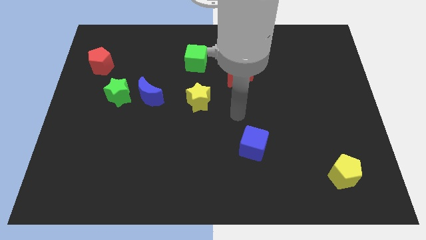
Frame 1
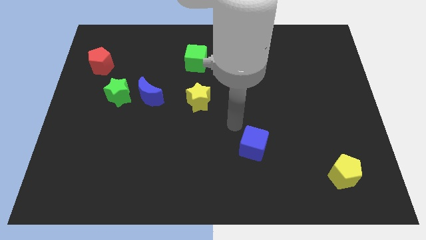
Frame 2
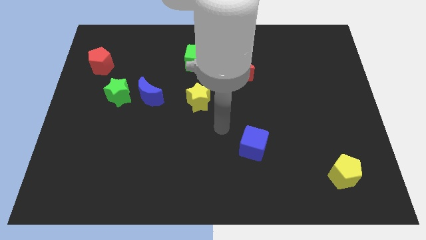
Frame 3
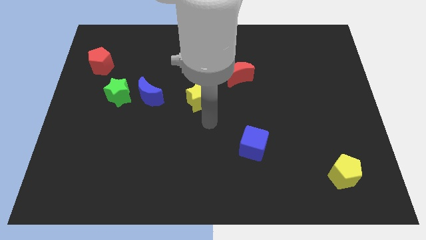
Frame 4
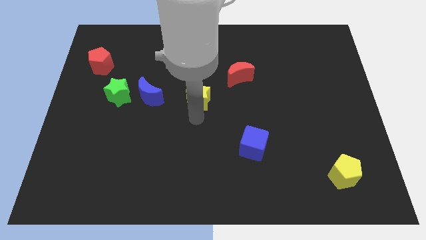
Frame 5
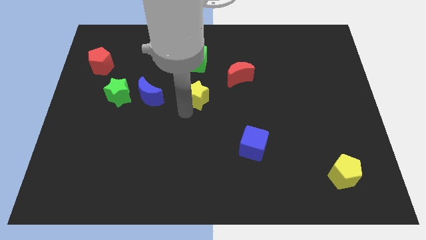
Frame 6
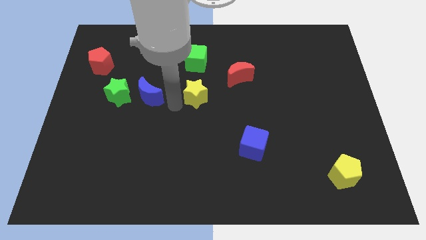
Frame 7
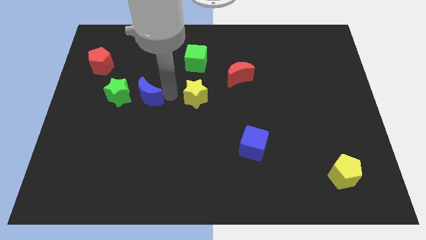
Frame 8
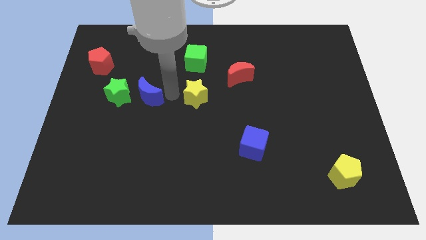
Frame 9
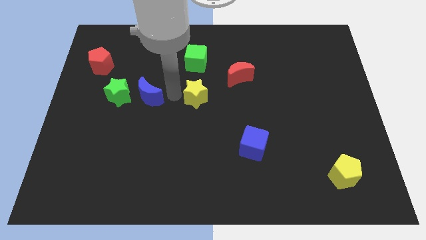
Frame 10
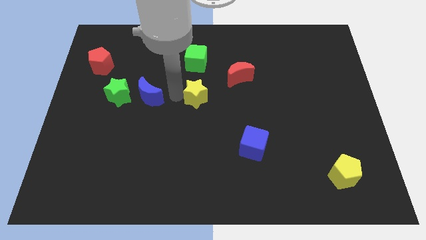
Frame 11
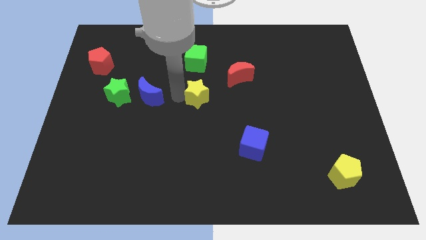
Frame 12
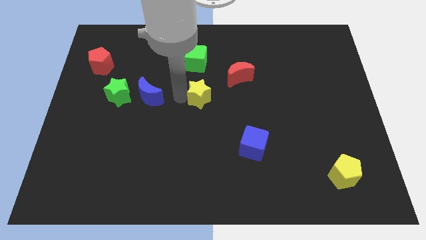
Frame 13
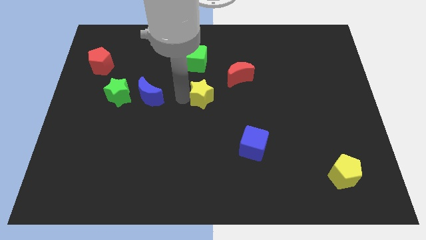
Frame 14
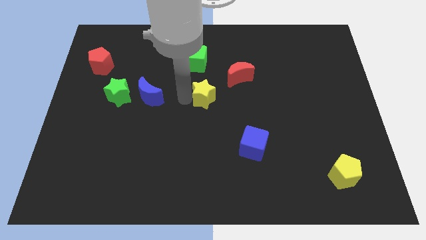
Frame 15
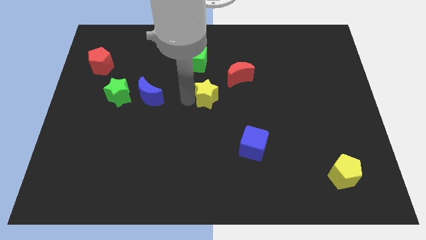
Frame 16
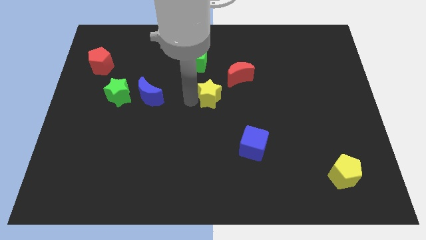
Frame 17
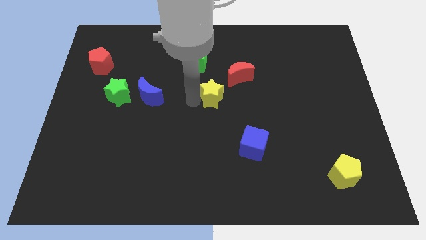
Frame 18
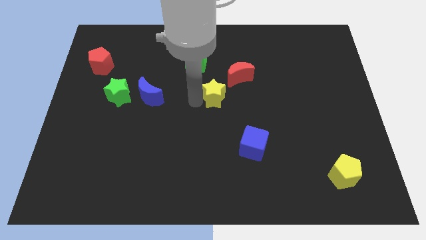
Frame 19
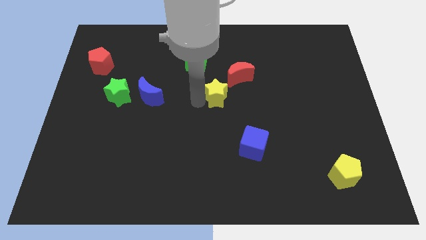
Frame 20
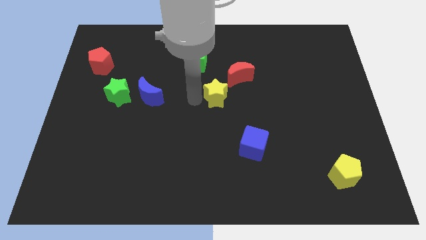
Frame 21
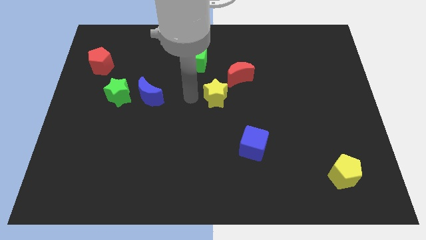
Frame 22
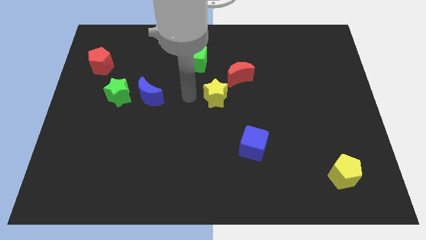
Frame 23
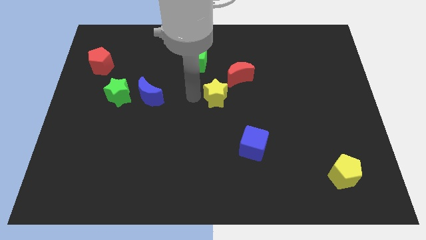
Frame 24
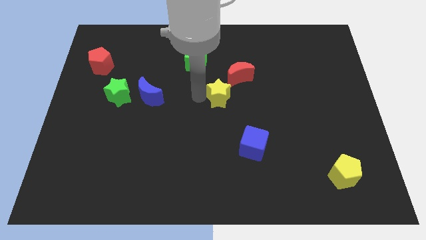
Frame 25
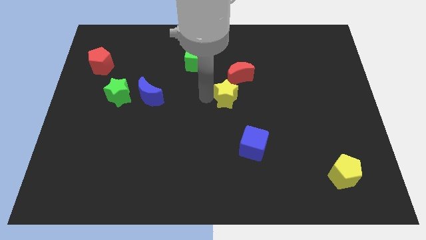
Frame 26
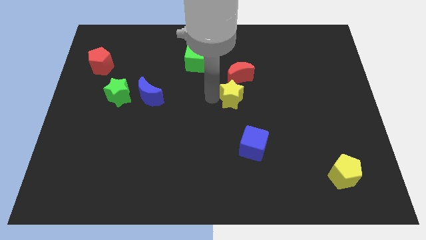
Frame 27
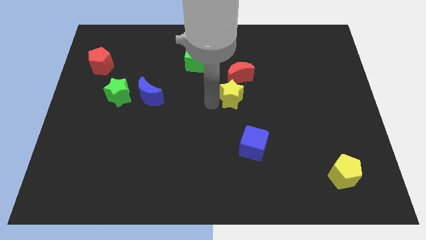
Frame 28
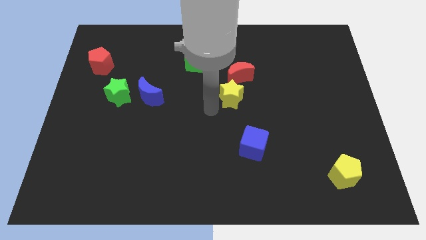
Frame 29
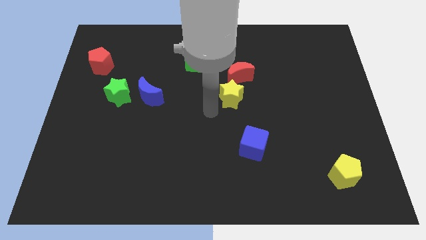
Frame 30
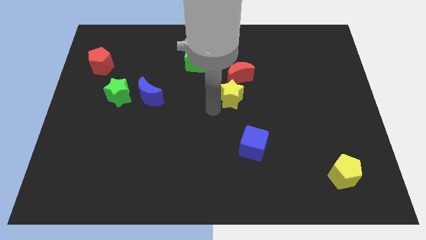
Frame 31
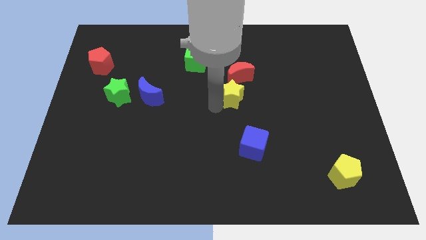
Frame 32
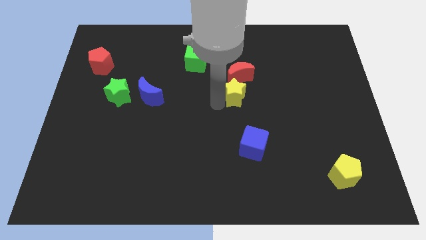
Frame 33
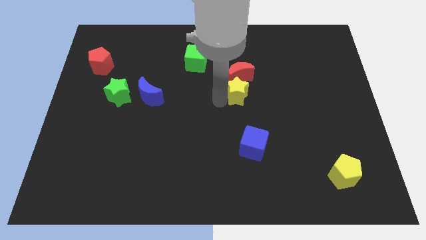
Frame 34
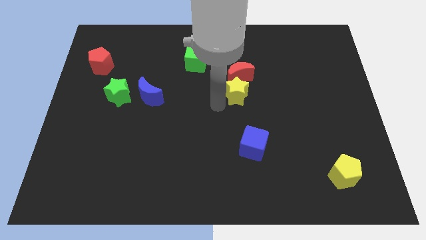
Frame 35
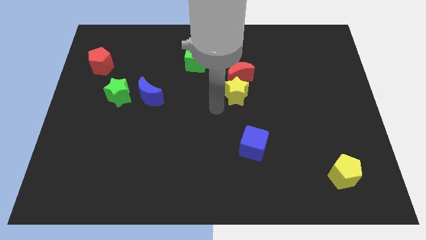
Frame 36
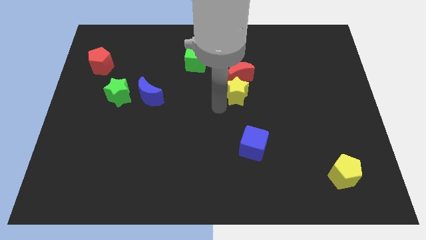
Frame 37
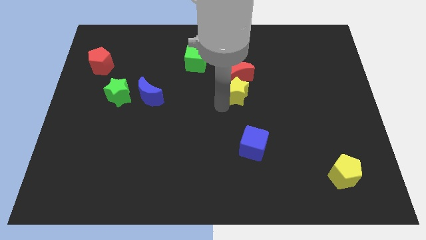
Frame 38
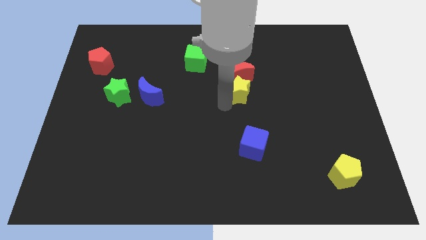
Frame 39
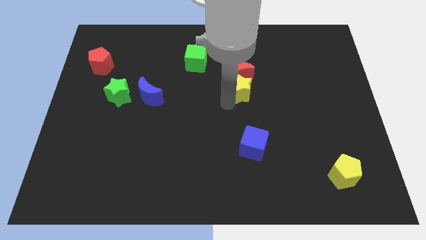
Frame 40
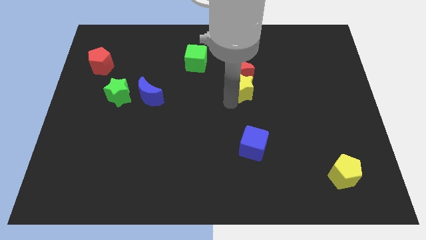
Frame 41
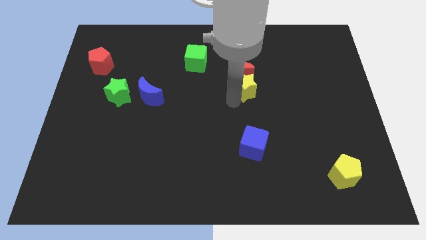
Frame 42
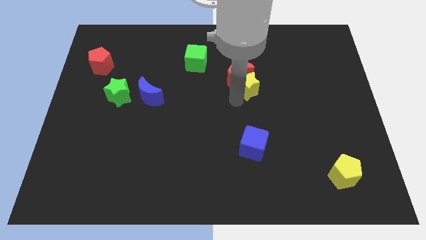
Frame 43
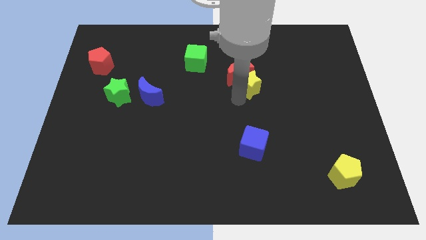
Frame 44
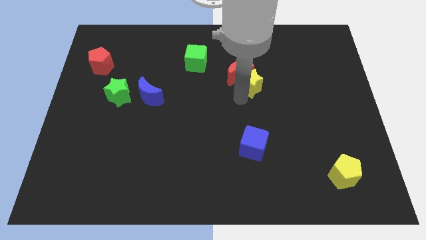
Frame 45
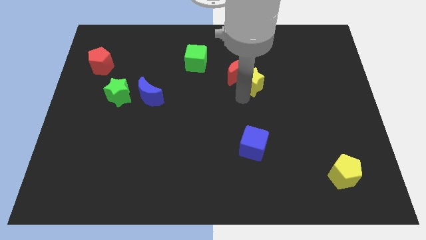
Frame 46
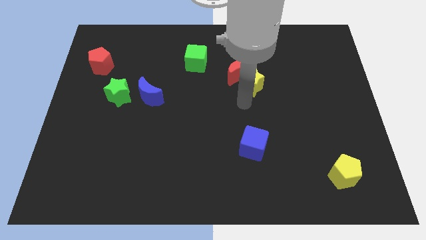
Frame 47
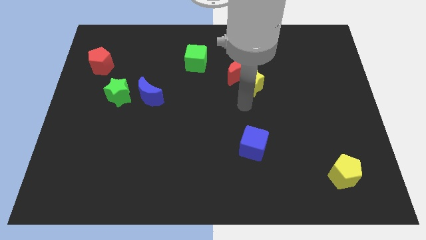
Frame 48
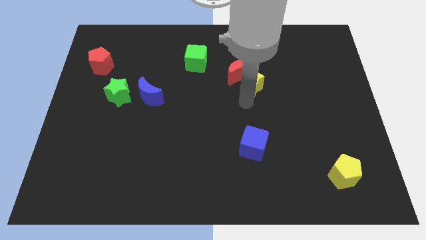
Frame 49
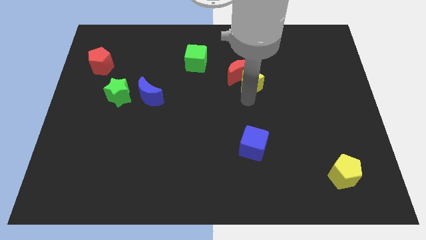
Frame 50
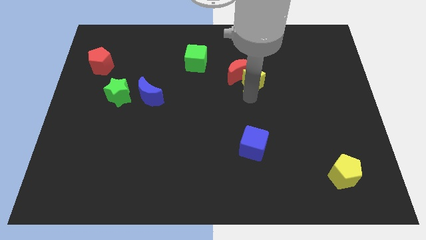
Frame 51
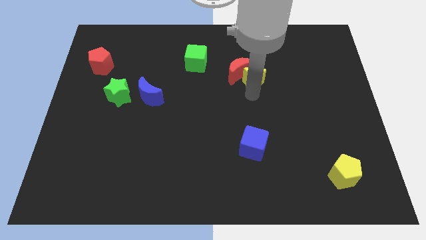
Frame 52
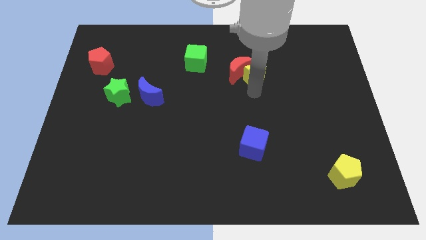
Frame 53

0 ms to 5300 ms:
move the yellow star to the top right side of the red moon

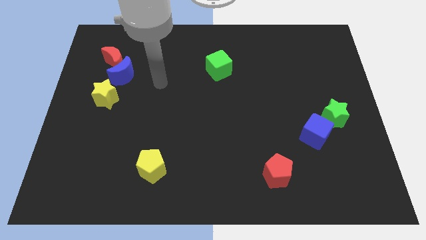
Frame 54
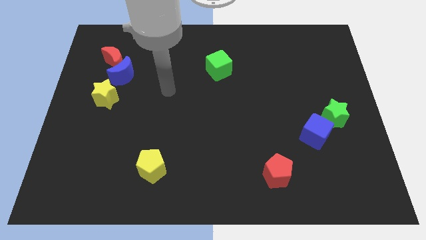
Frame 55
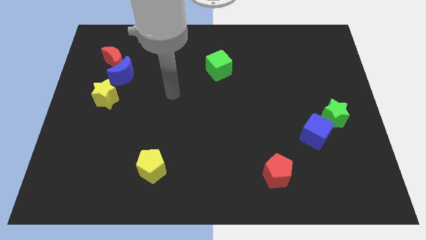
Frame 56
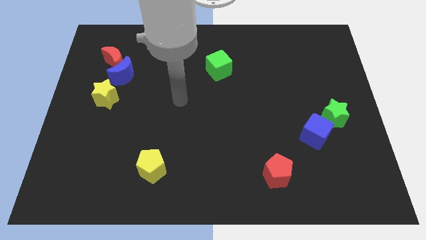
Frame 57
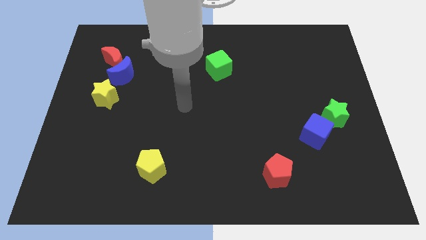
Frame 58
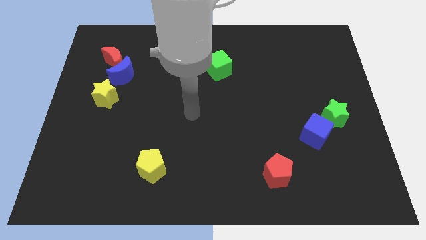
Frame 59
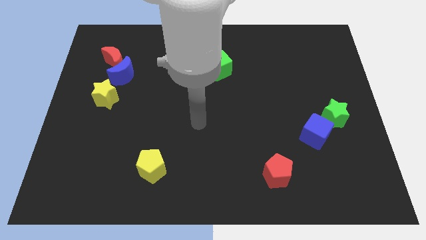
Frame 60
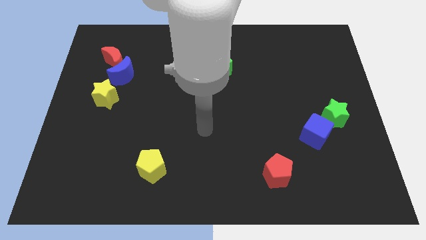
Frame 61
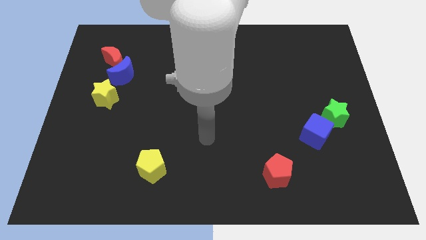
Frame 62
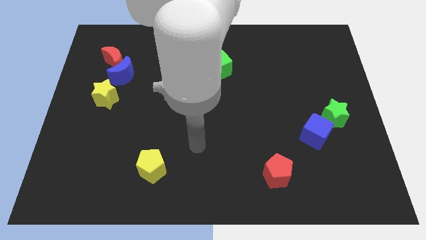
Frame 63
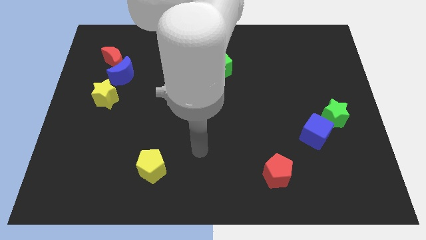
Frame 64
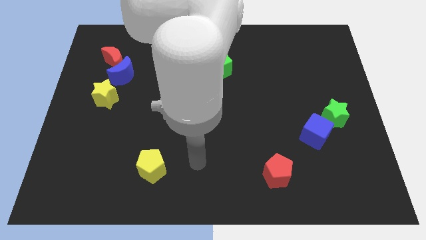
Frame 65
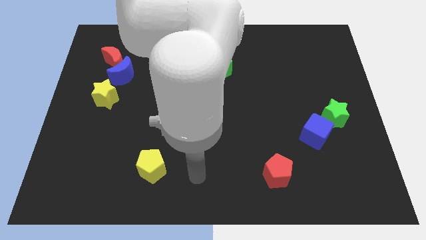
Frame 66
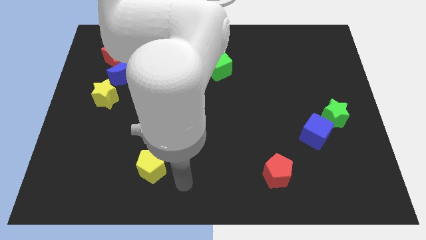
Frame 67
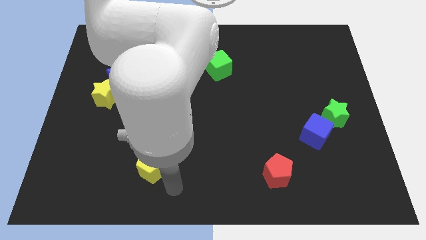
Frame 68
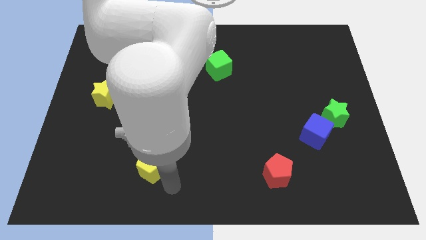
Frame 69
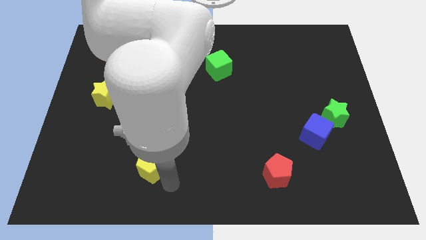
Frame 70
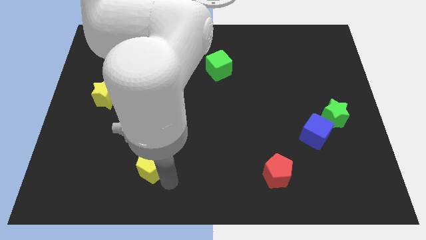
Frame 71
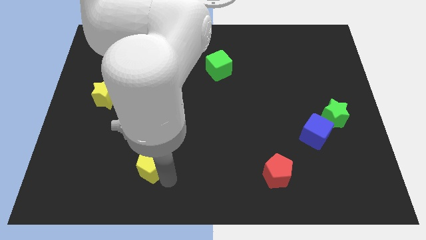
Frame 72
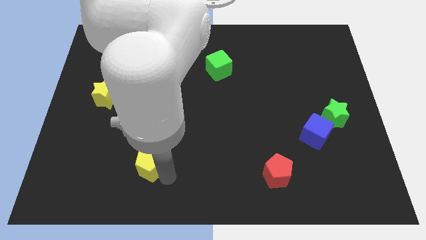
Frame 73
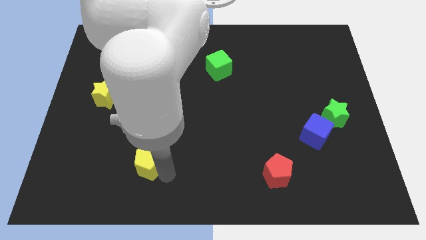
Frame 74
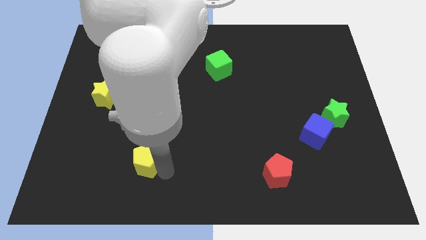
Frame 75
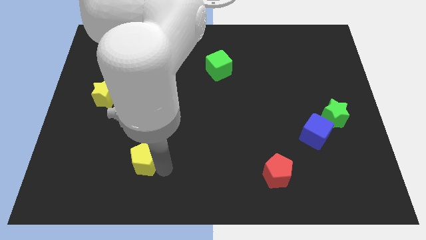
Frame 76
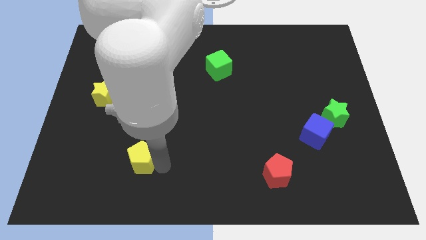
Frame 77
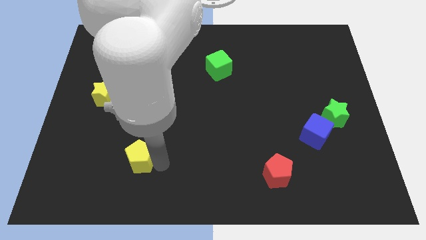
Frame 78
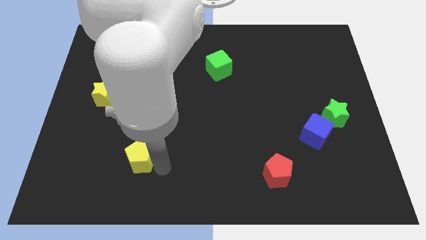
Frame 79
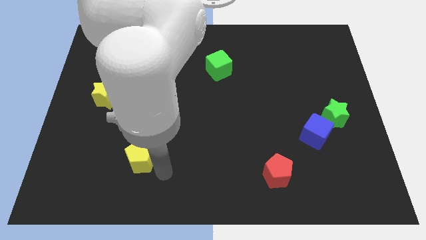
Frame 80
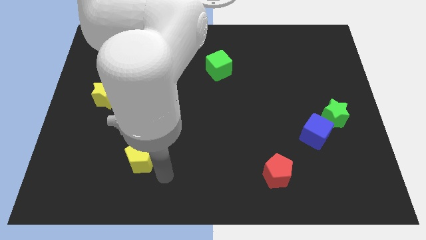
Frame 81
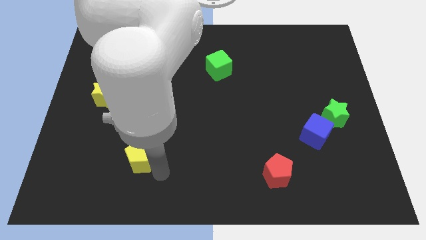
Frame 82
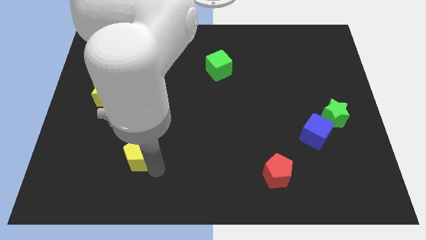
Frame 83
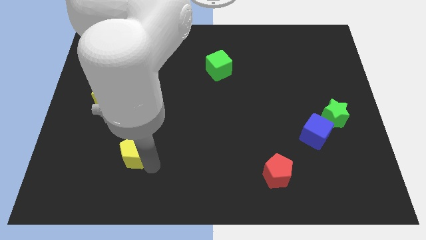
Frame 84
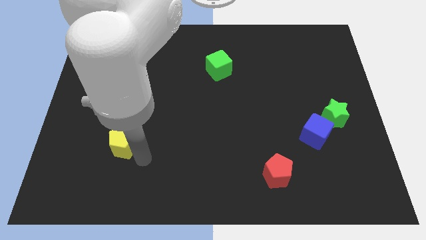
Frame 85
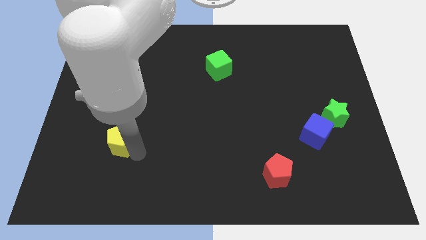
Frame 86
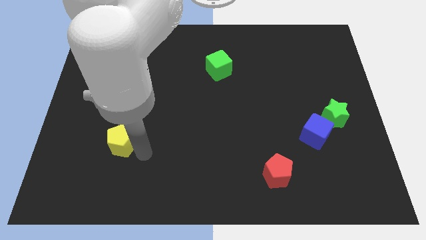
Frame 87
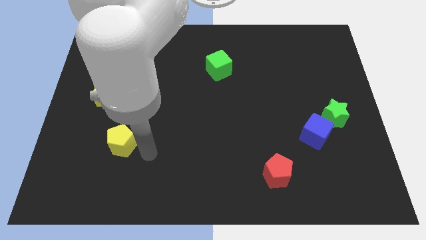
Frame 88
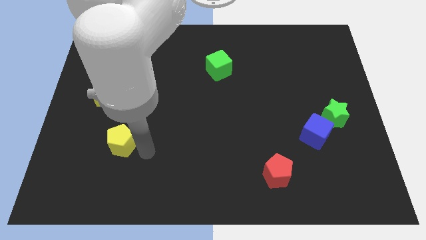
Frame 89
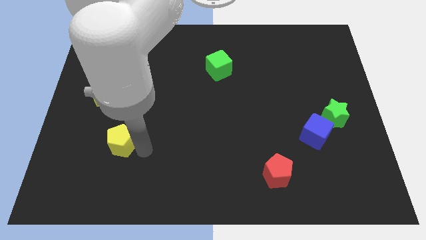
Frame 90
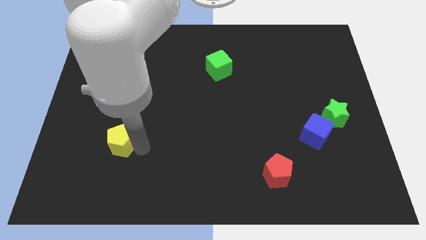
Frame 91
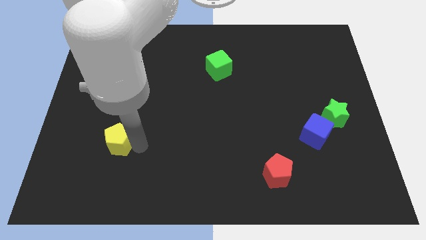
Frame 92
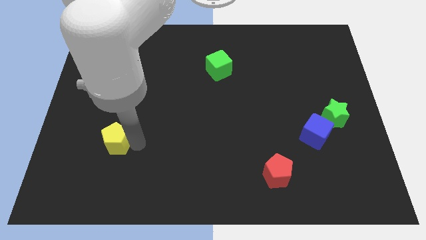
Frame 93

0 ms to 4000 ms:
put the yellow pentagon to the bottom side of the yellow star
